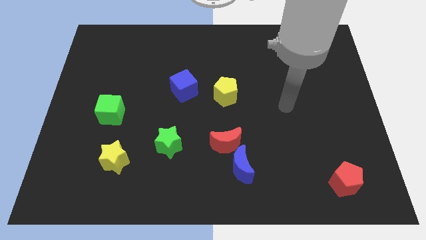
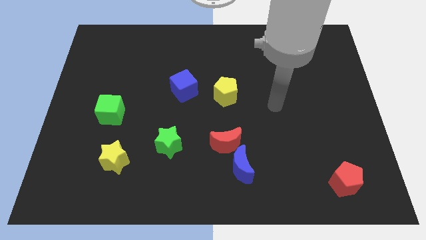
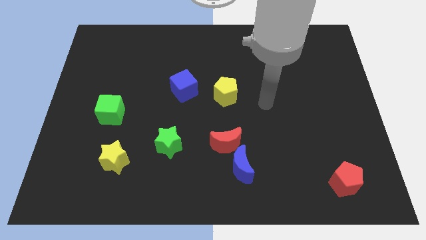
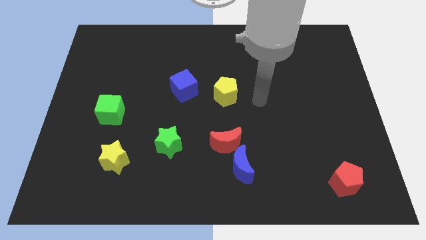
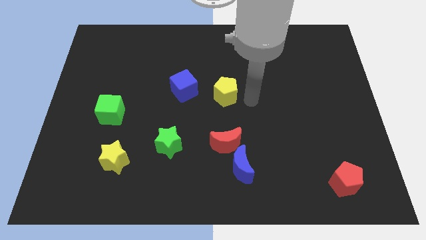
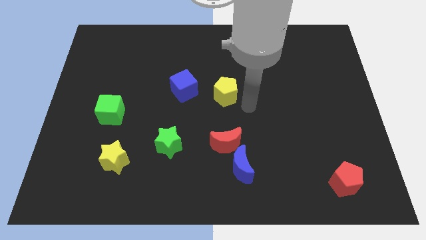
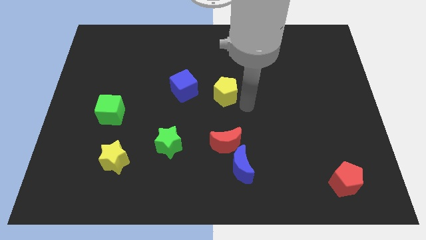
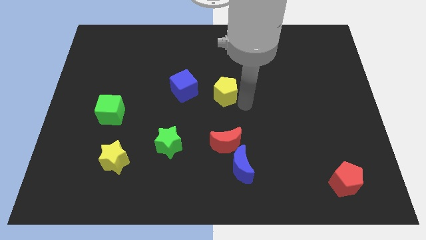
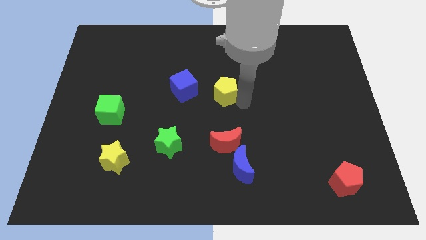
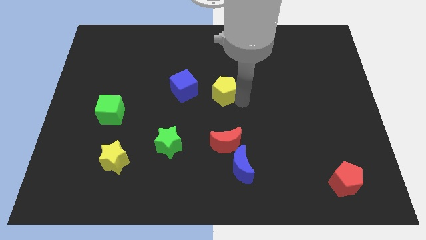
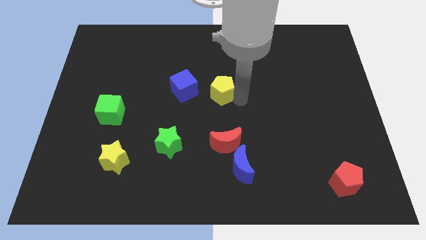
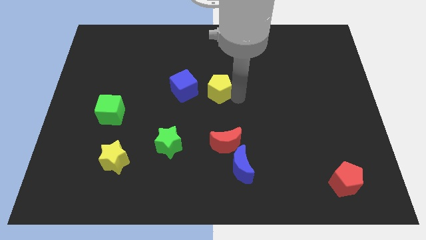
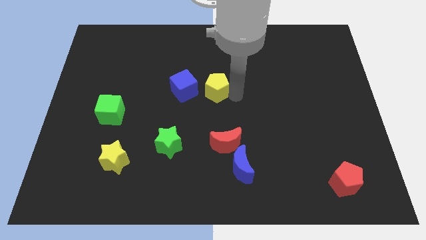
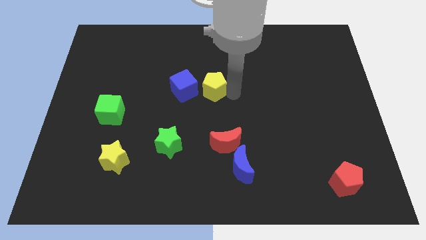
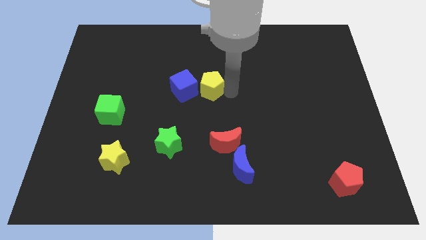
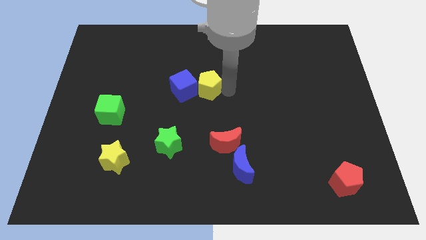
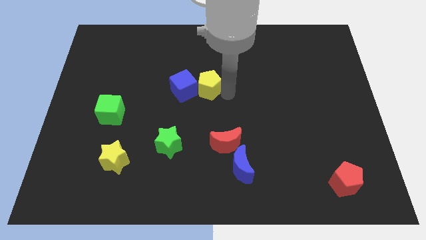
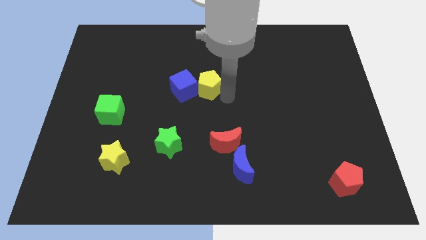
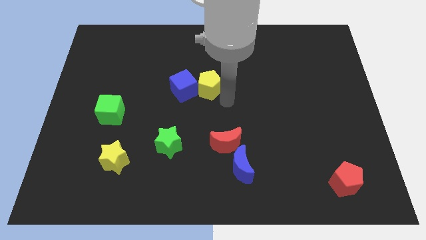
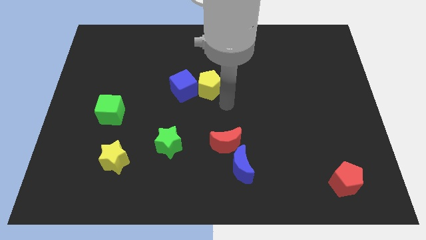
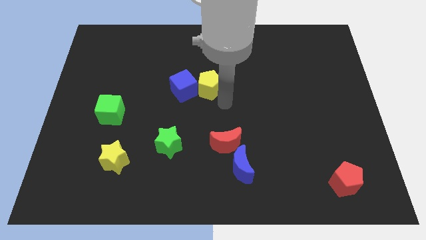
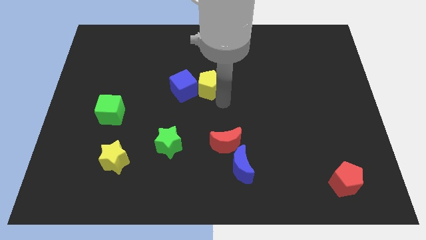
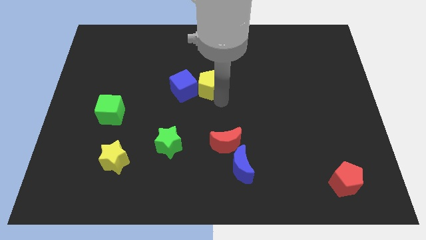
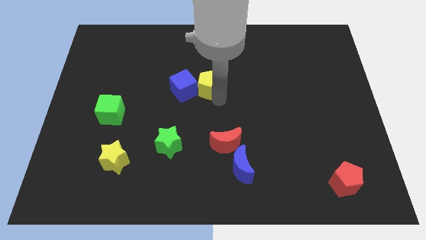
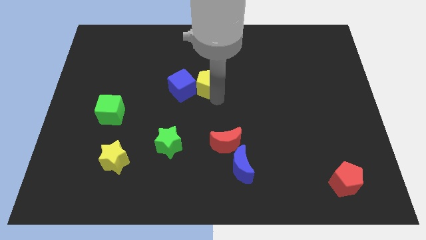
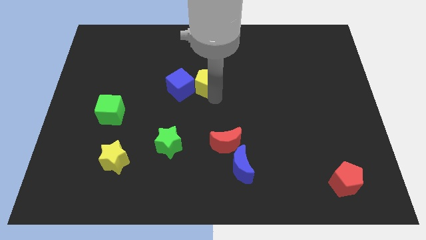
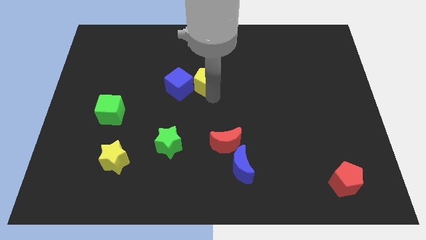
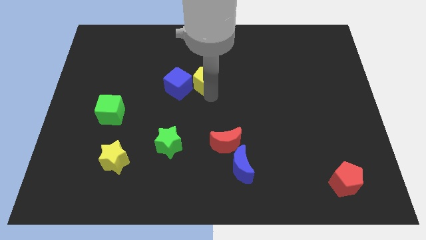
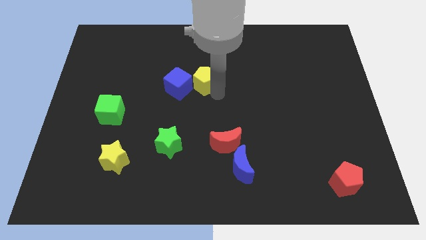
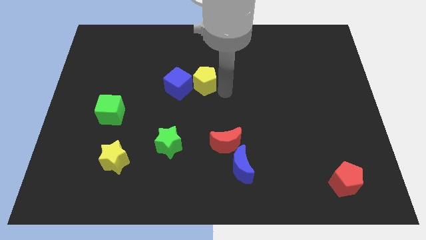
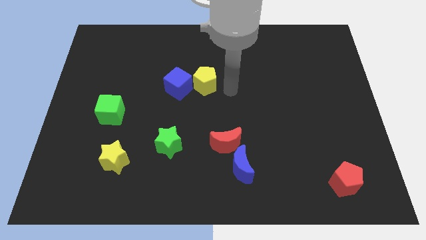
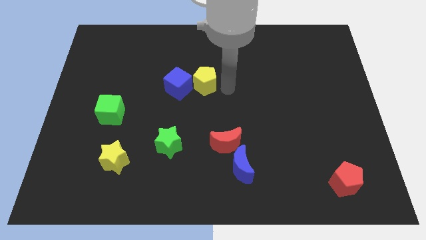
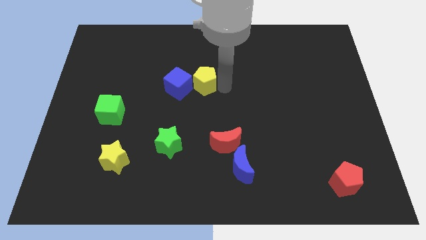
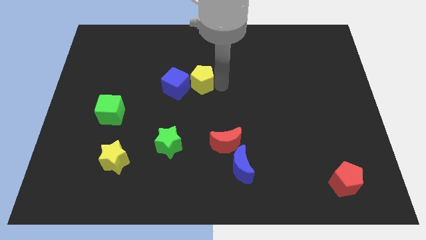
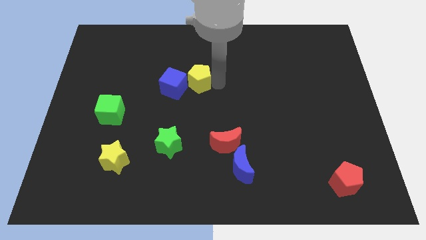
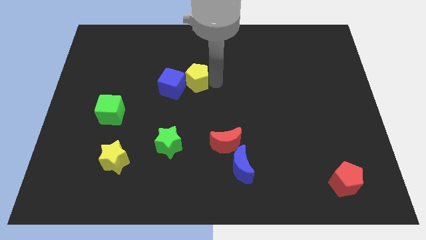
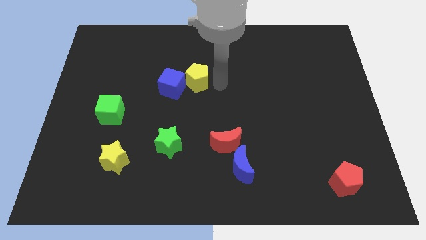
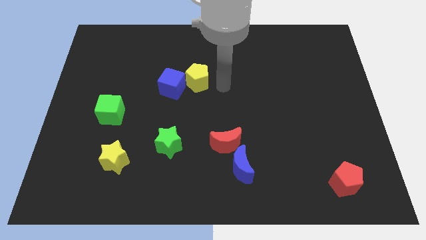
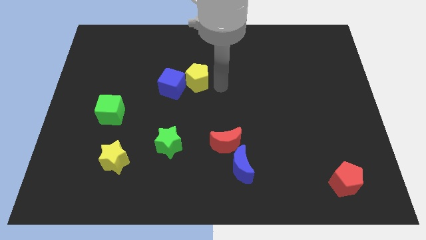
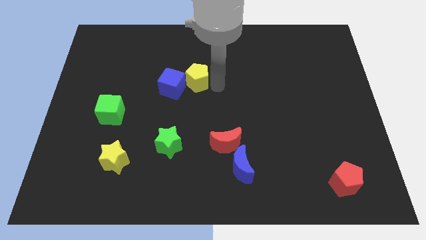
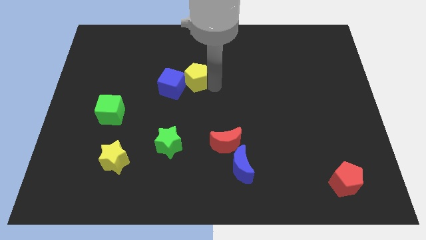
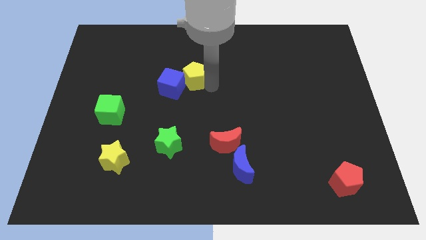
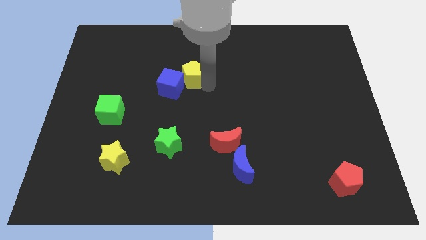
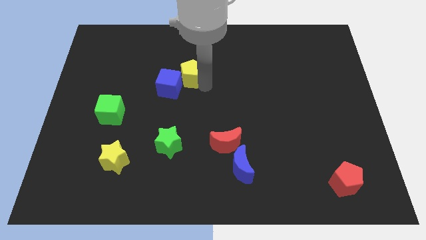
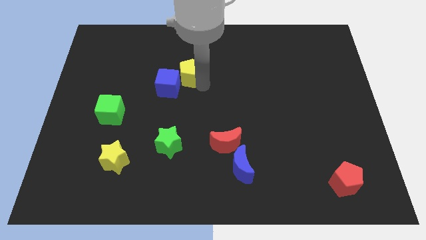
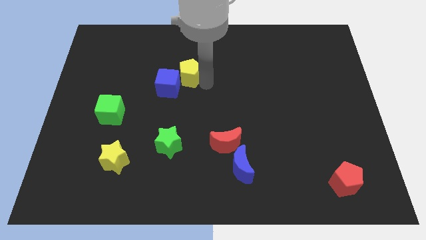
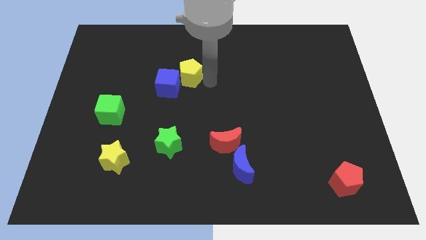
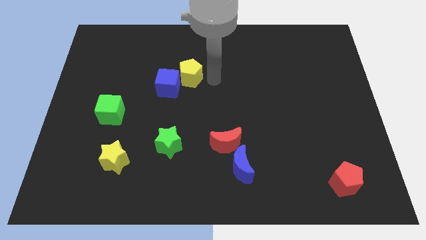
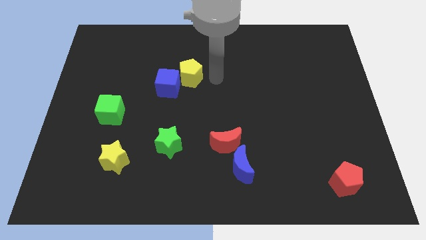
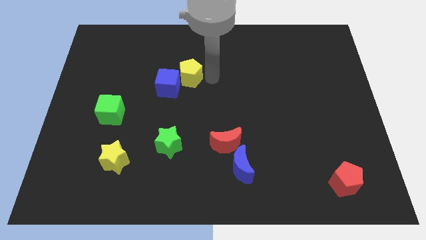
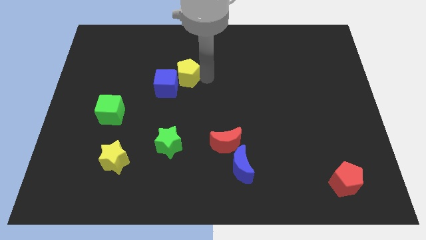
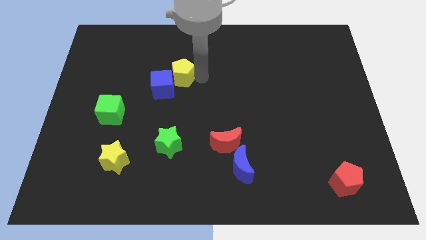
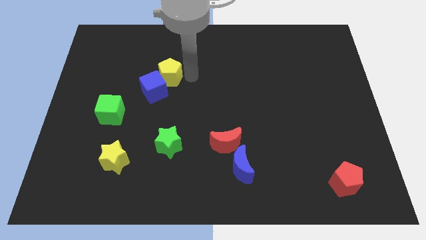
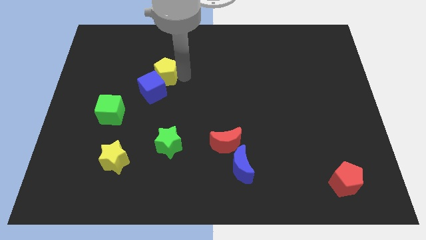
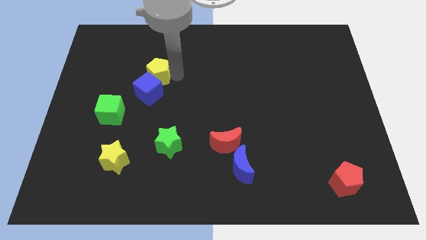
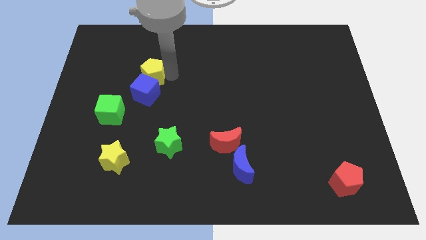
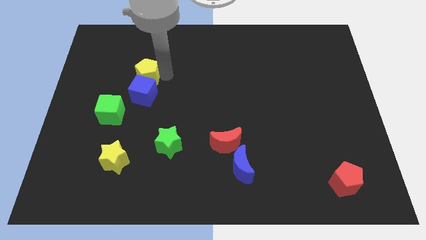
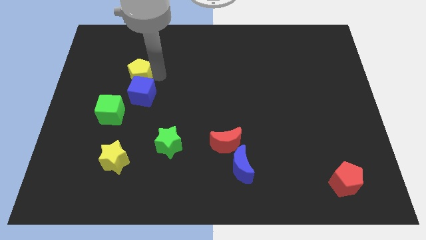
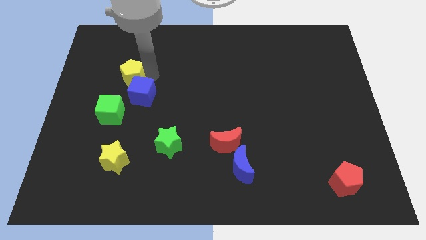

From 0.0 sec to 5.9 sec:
put the yellow pentagon to the top of the green cube

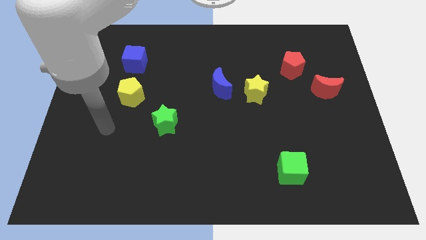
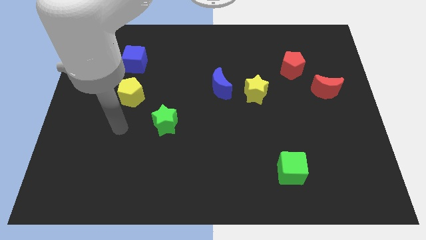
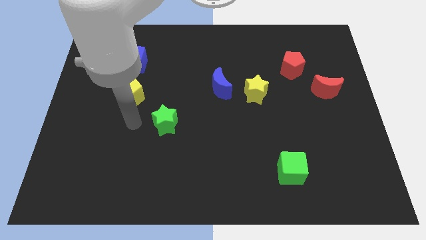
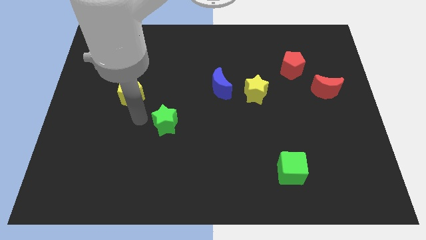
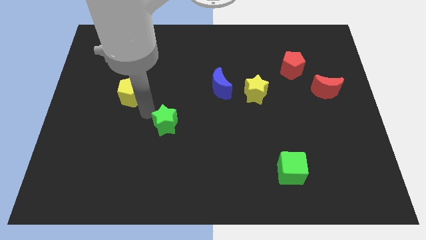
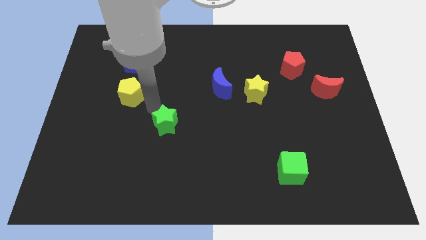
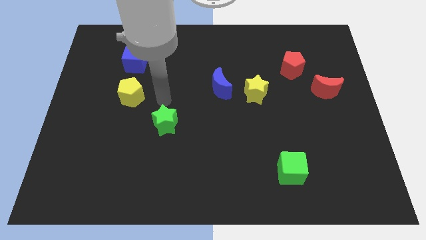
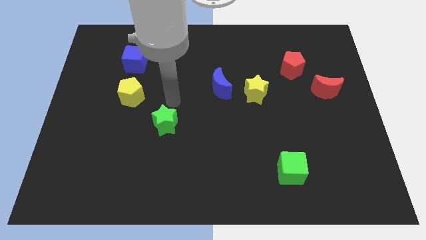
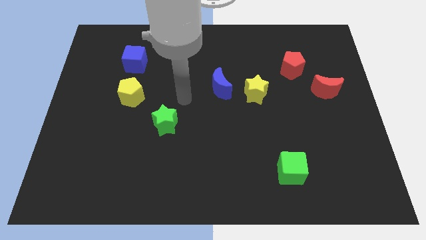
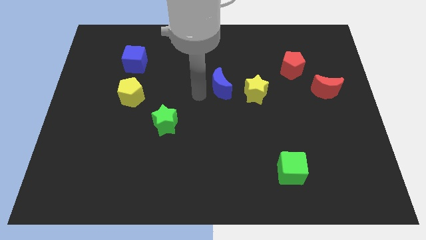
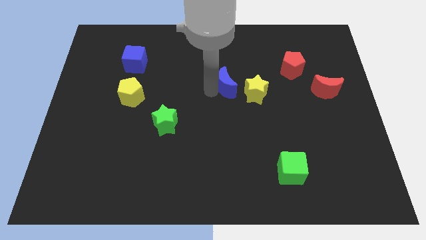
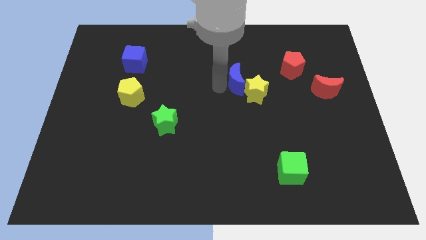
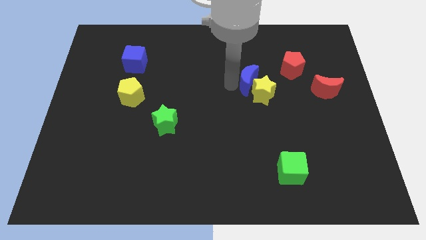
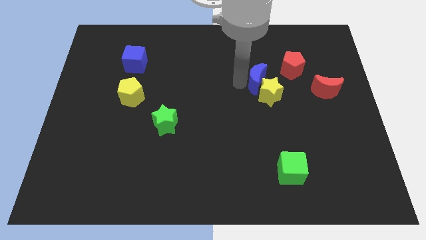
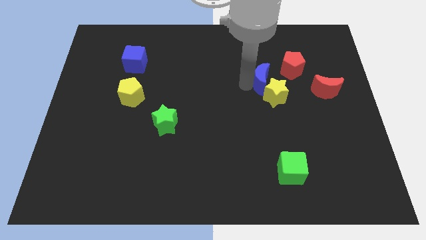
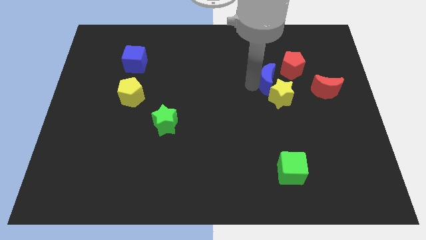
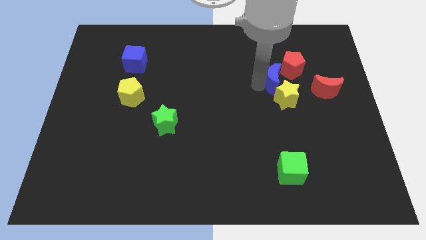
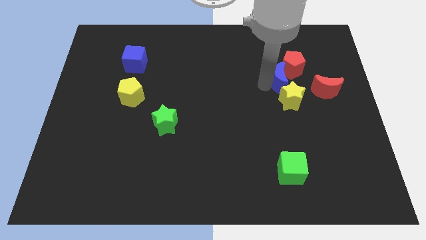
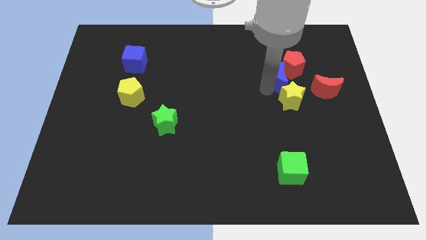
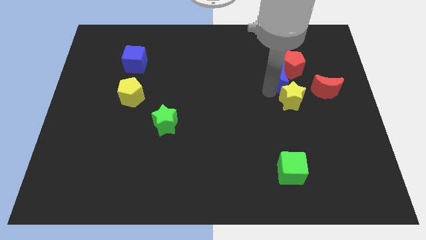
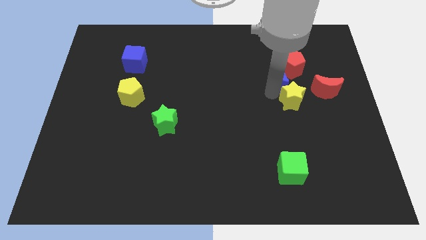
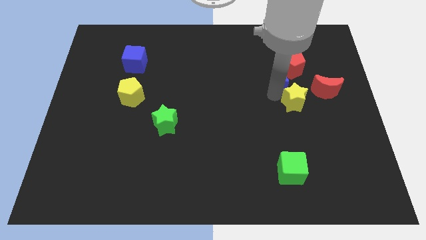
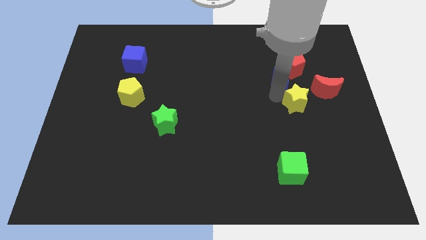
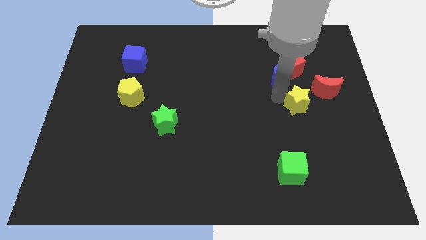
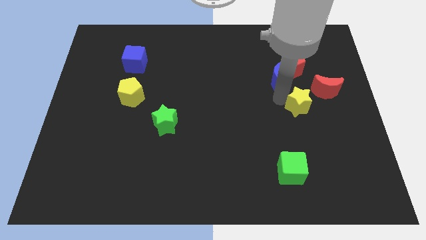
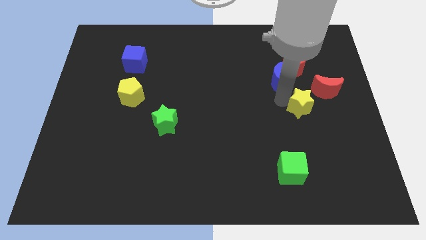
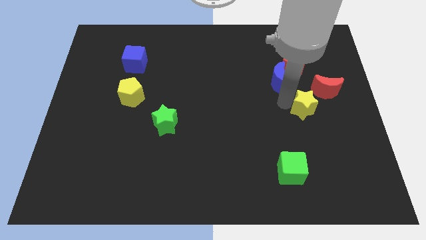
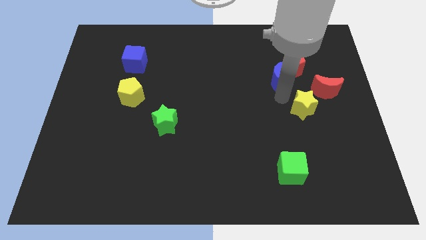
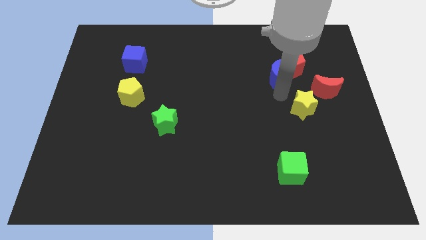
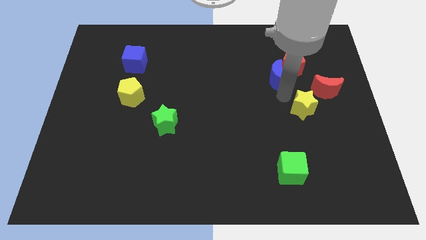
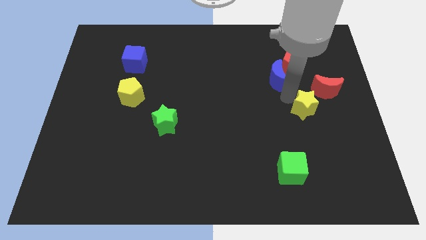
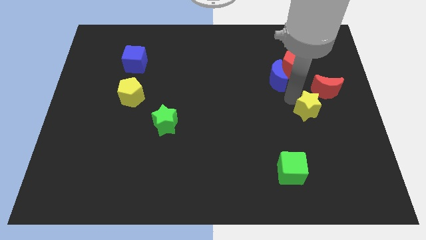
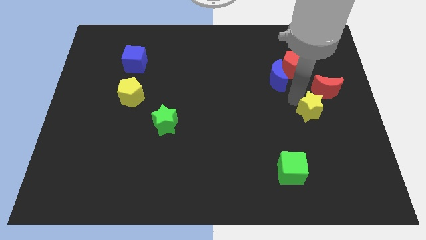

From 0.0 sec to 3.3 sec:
slide the yellow star to the bottom of the red moon
